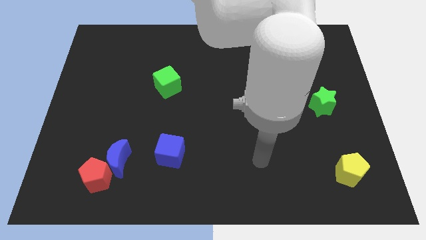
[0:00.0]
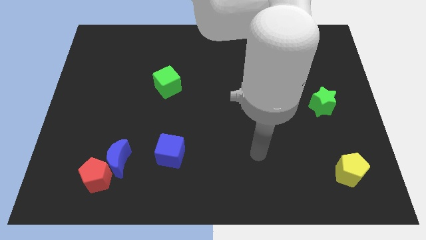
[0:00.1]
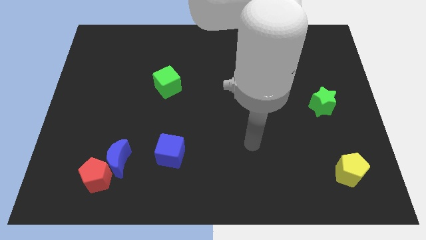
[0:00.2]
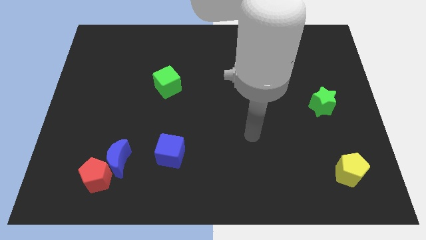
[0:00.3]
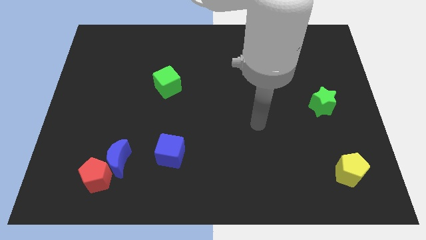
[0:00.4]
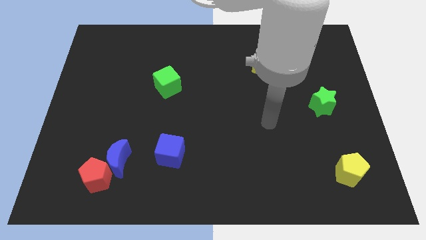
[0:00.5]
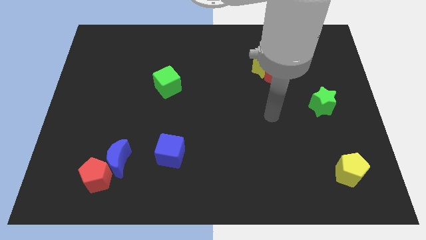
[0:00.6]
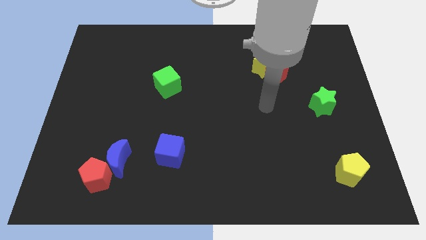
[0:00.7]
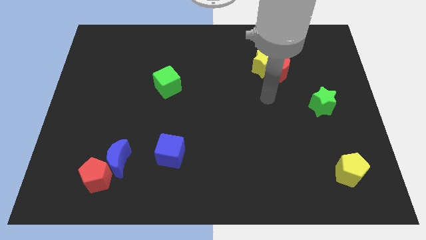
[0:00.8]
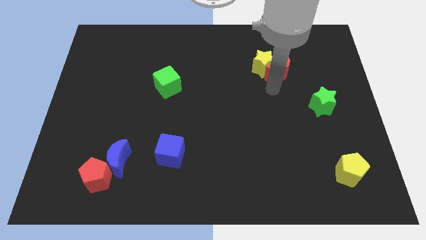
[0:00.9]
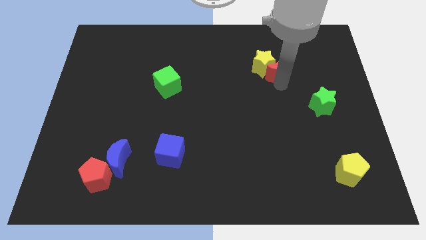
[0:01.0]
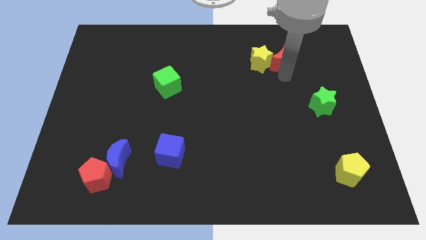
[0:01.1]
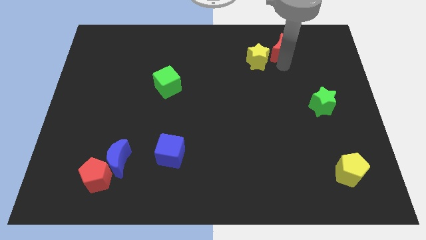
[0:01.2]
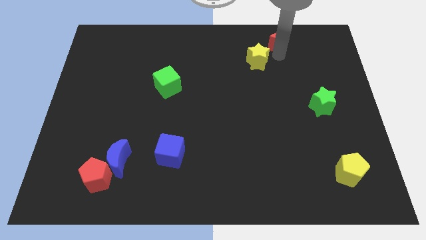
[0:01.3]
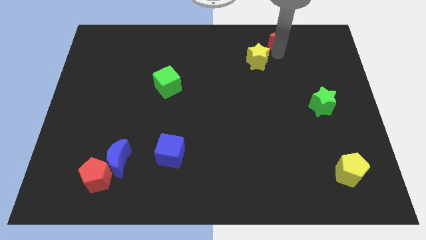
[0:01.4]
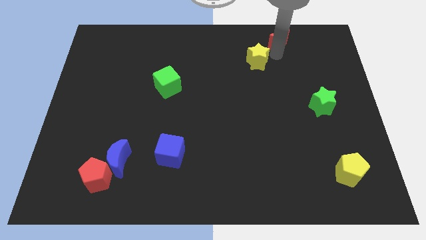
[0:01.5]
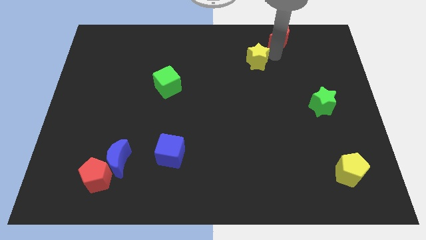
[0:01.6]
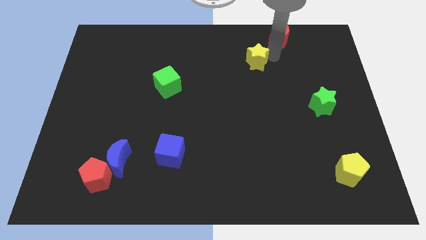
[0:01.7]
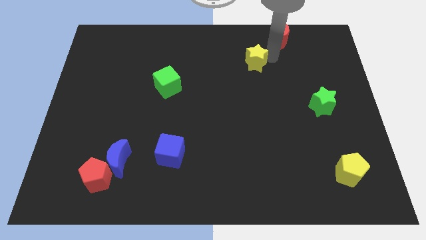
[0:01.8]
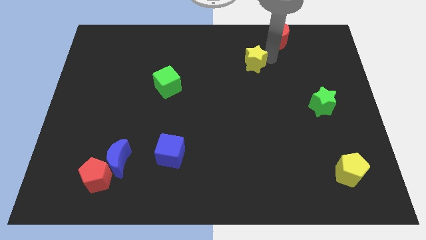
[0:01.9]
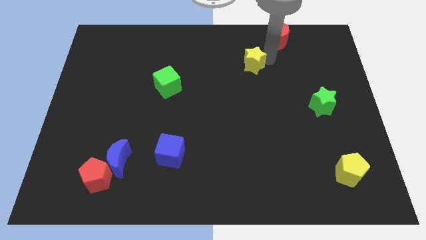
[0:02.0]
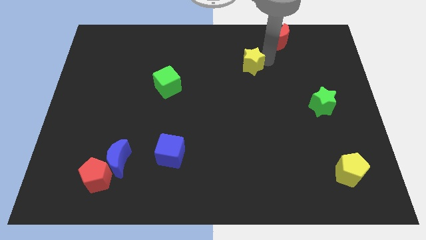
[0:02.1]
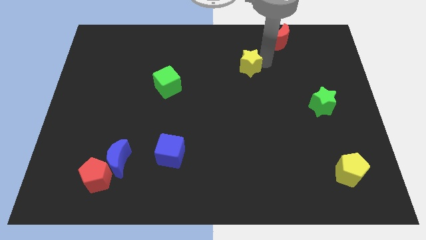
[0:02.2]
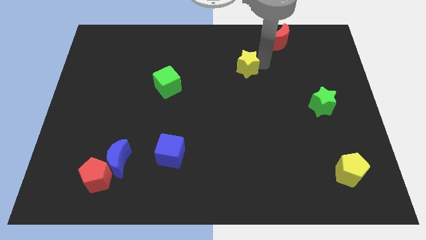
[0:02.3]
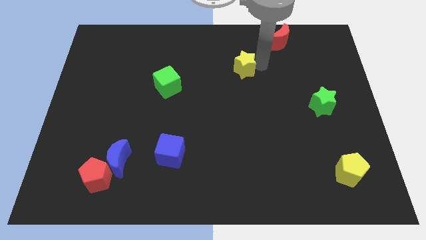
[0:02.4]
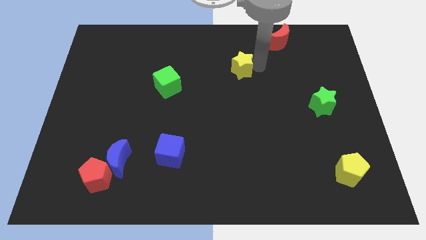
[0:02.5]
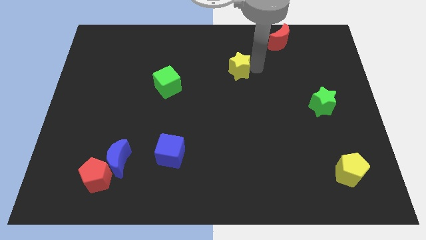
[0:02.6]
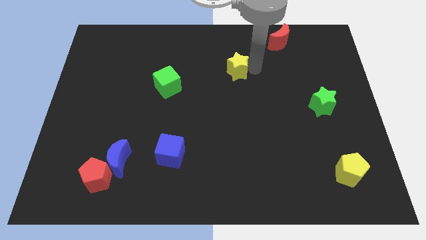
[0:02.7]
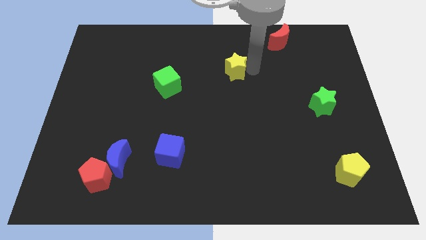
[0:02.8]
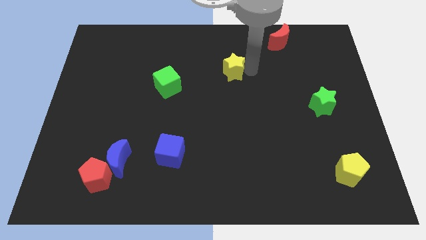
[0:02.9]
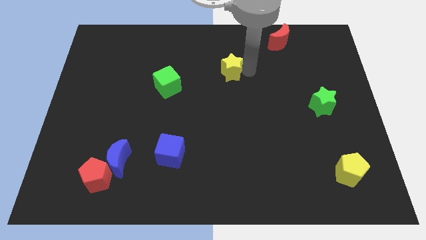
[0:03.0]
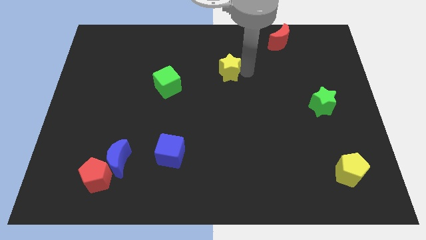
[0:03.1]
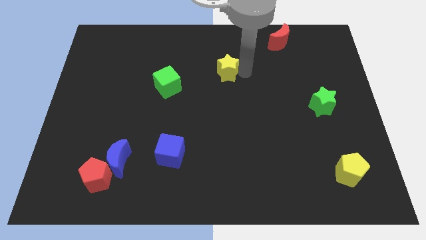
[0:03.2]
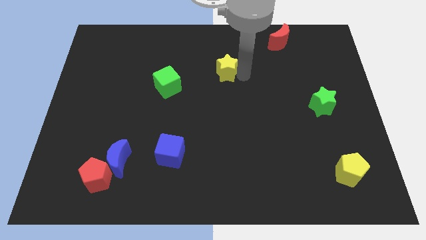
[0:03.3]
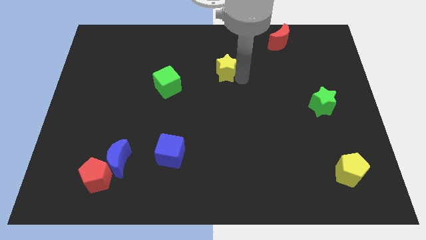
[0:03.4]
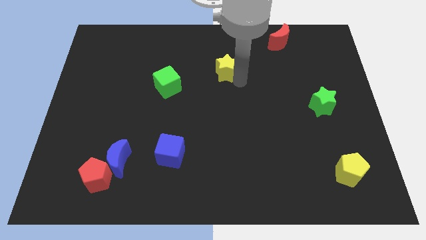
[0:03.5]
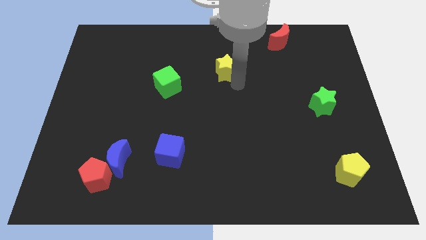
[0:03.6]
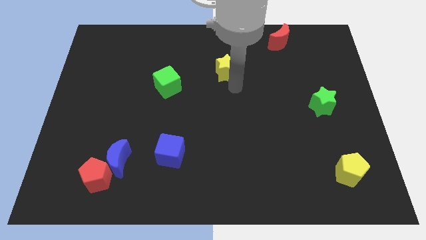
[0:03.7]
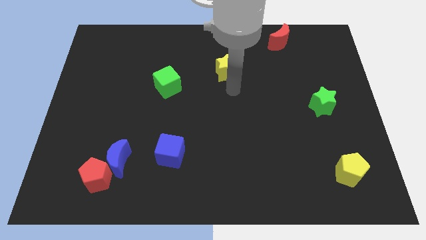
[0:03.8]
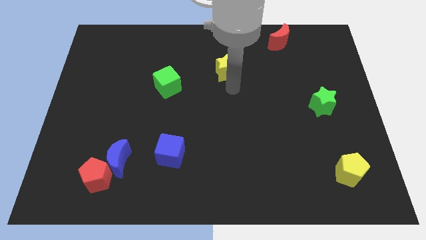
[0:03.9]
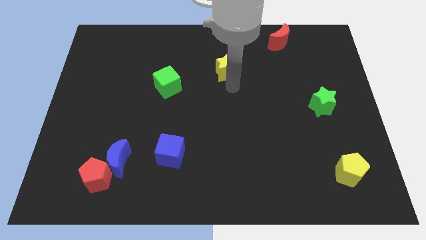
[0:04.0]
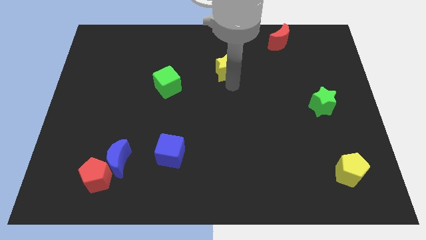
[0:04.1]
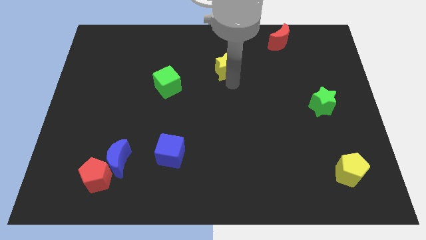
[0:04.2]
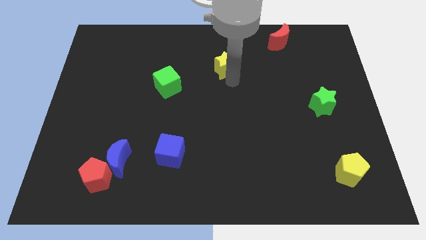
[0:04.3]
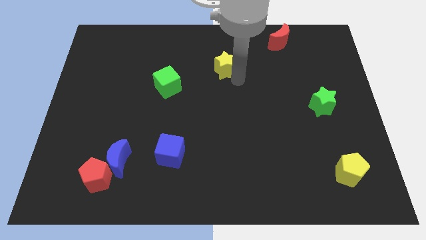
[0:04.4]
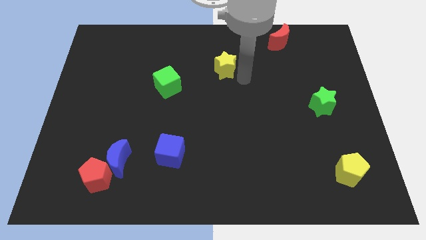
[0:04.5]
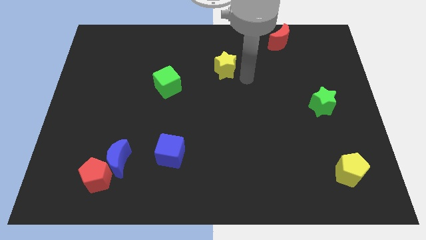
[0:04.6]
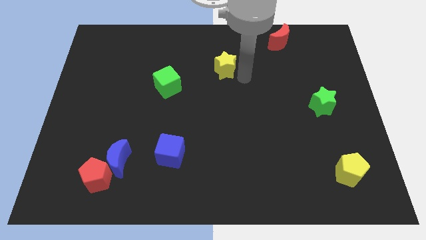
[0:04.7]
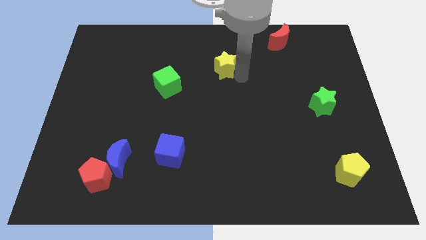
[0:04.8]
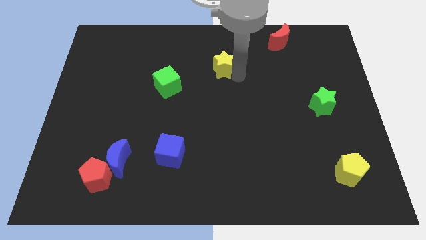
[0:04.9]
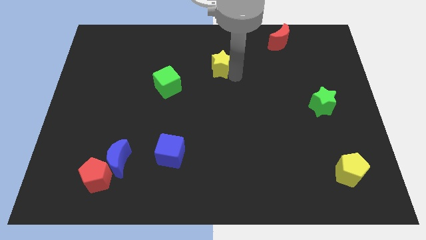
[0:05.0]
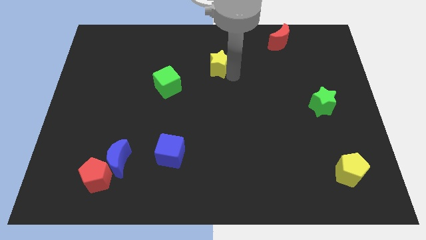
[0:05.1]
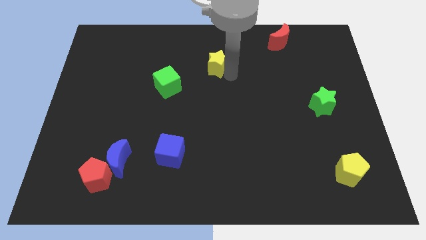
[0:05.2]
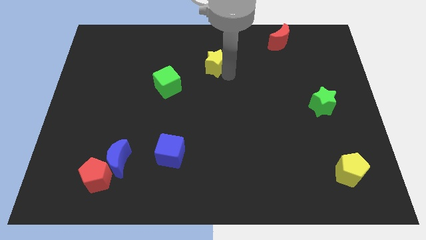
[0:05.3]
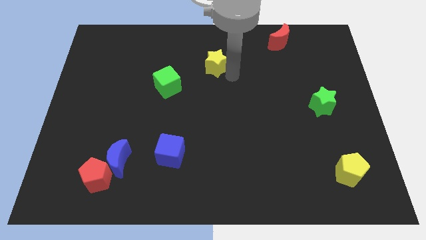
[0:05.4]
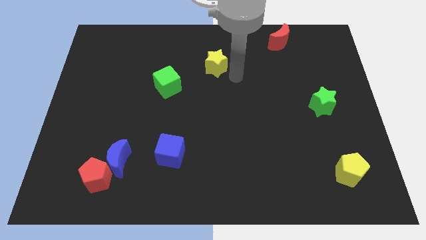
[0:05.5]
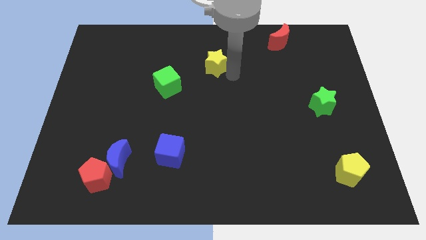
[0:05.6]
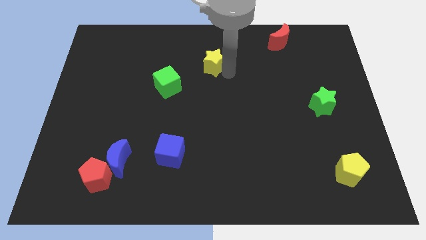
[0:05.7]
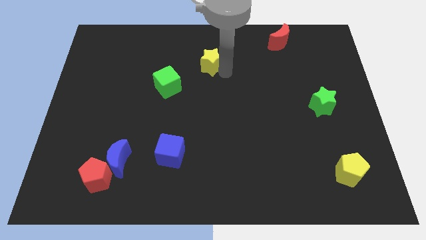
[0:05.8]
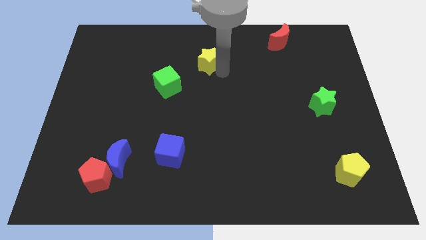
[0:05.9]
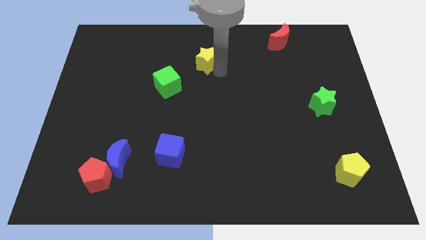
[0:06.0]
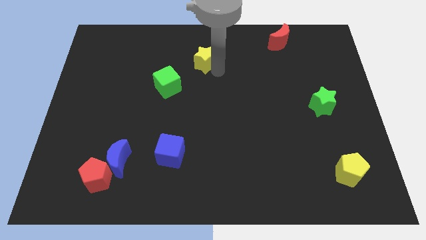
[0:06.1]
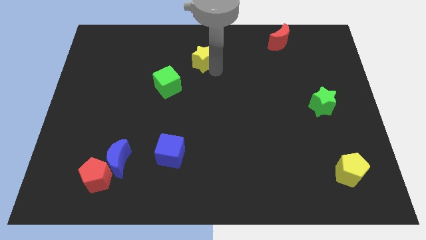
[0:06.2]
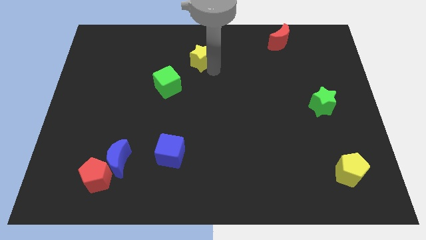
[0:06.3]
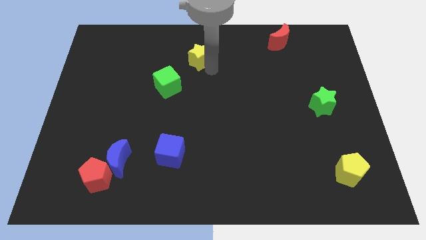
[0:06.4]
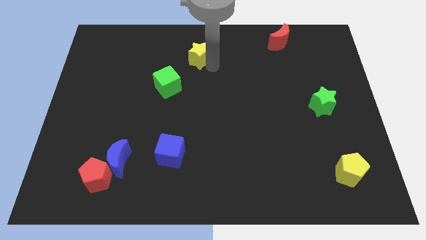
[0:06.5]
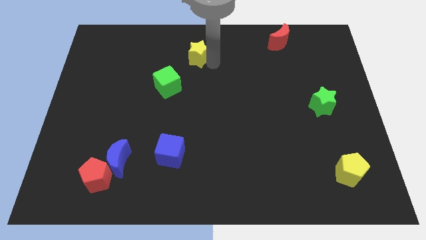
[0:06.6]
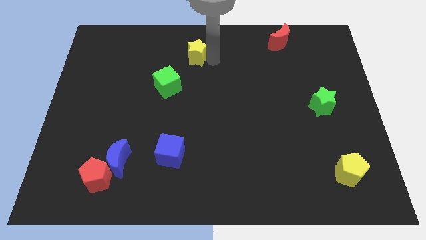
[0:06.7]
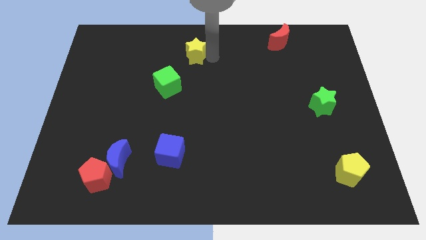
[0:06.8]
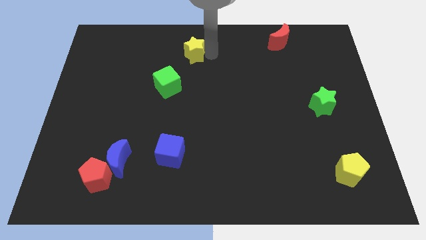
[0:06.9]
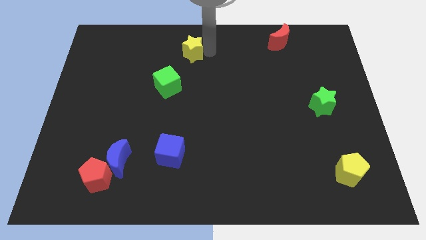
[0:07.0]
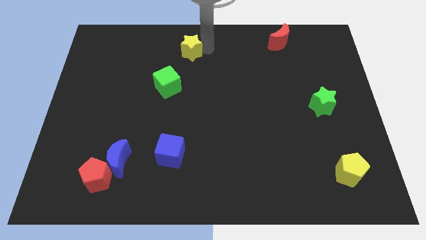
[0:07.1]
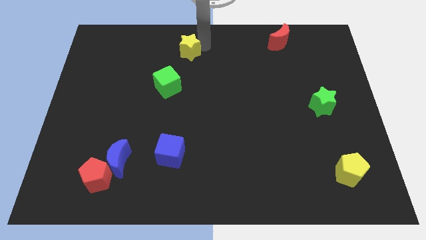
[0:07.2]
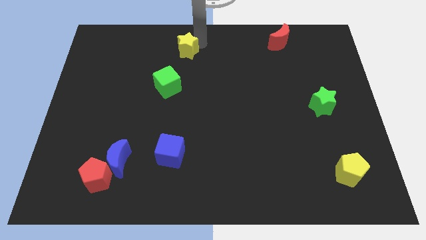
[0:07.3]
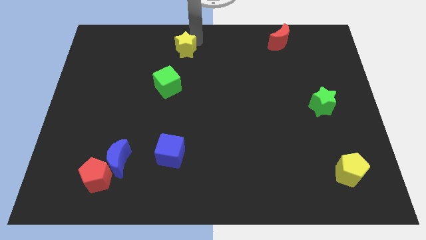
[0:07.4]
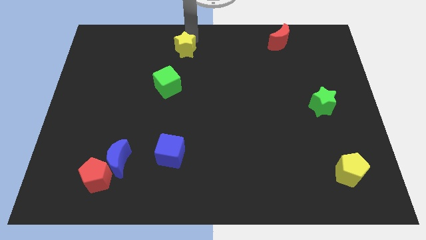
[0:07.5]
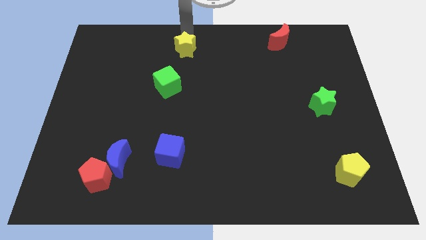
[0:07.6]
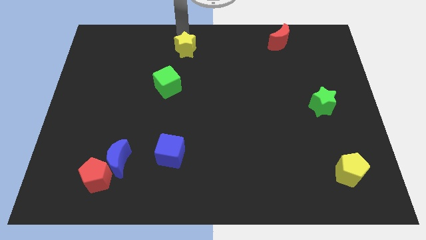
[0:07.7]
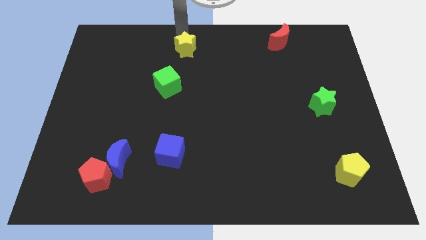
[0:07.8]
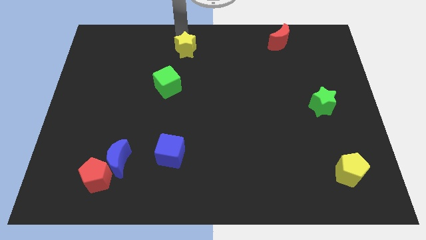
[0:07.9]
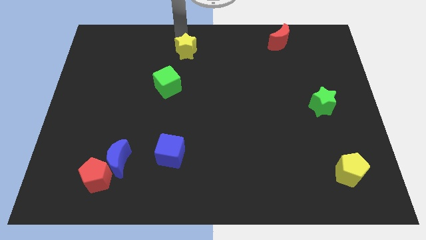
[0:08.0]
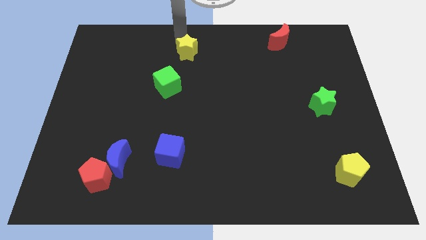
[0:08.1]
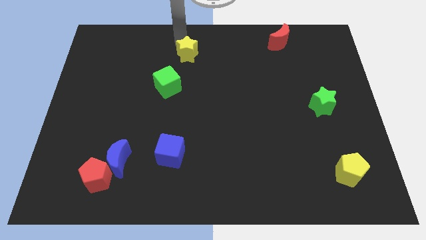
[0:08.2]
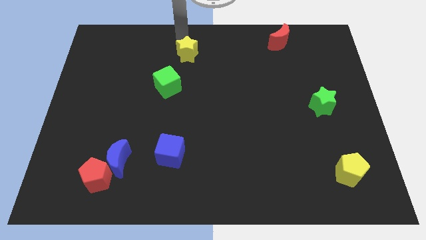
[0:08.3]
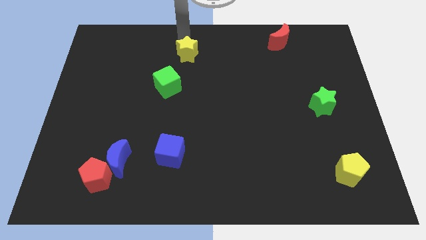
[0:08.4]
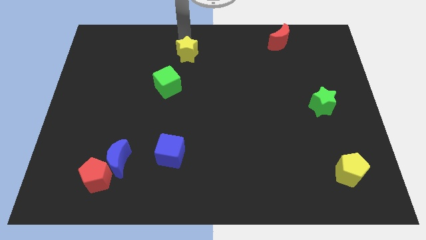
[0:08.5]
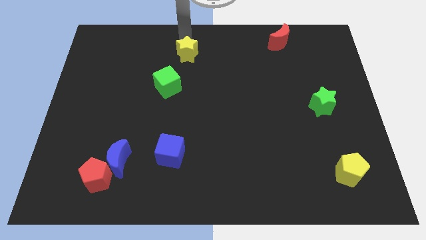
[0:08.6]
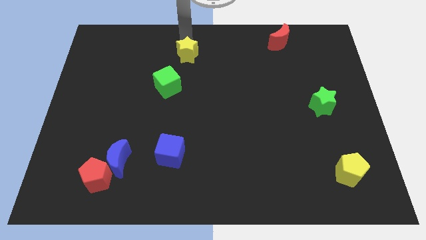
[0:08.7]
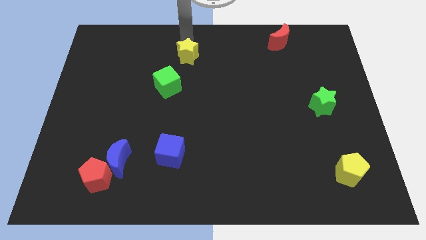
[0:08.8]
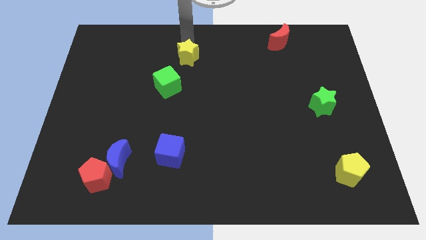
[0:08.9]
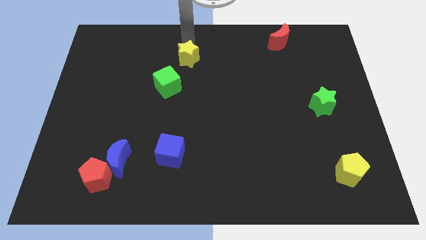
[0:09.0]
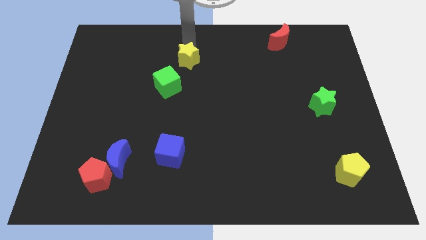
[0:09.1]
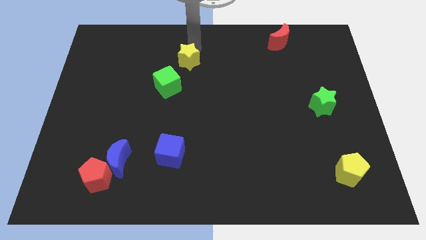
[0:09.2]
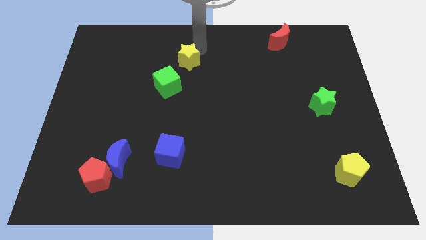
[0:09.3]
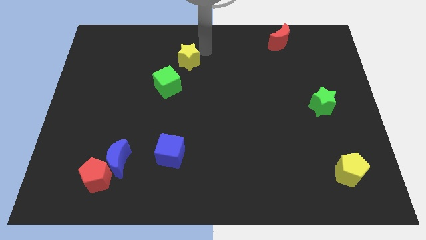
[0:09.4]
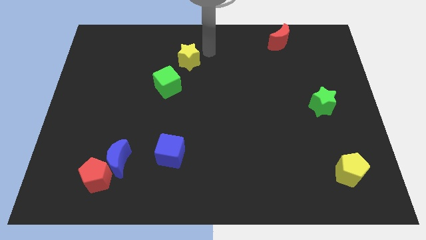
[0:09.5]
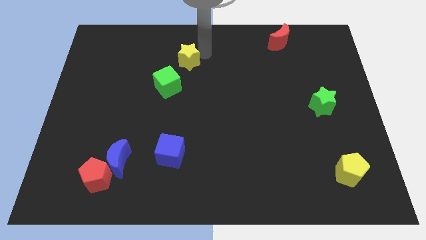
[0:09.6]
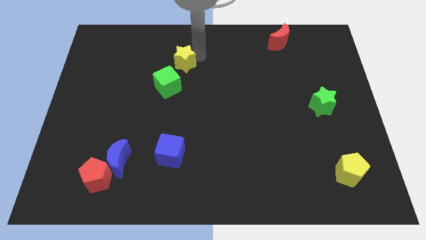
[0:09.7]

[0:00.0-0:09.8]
slide the yellow star left
